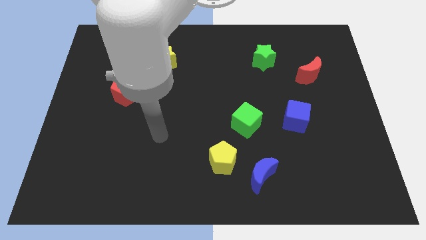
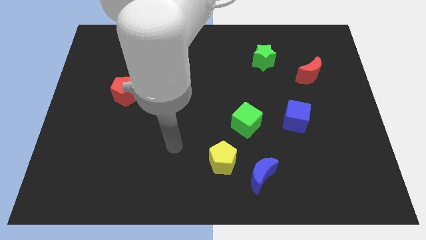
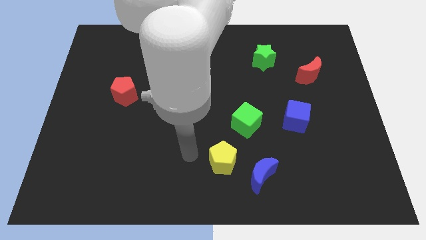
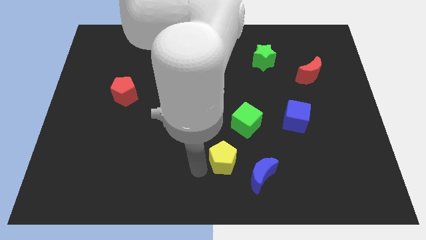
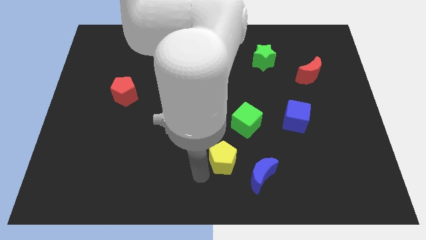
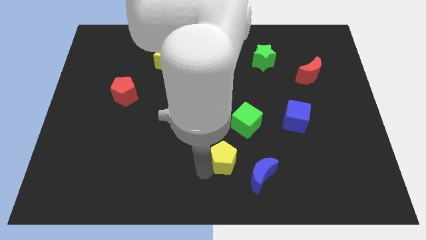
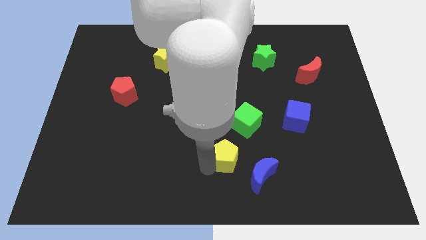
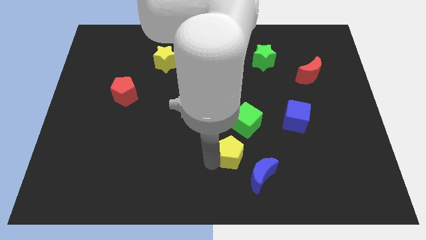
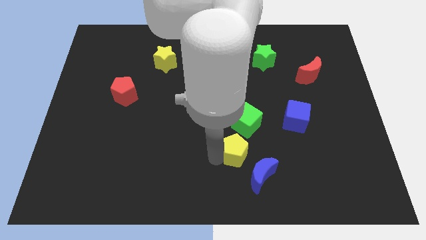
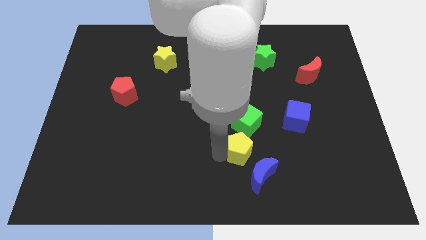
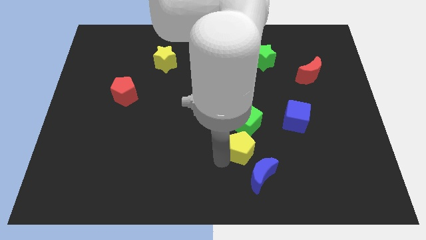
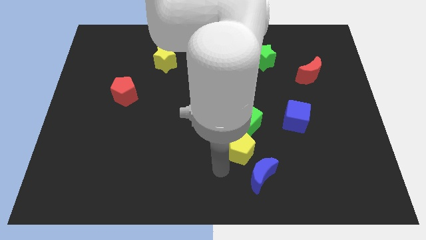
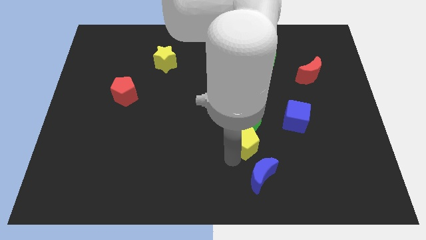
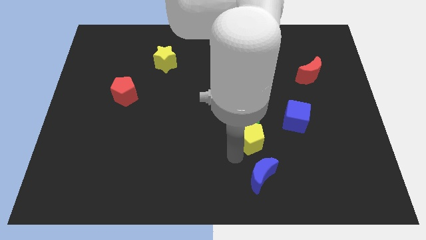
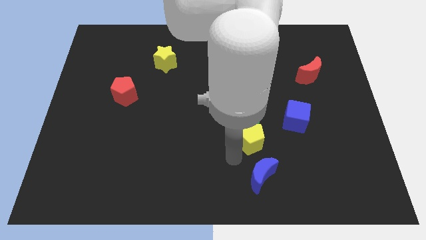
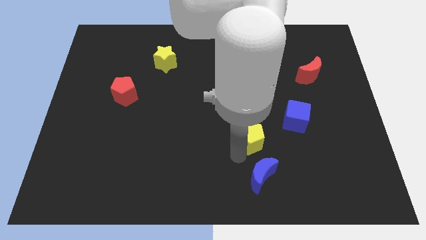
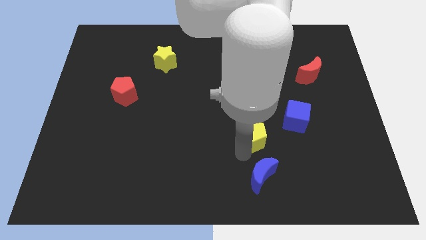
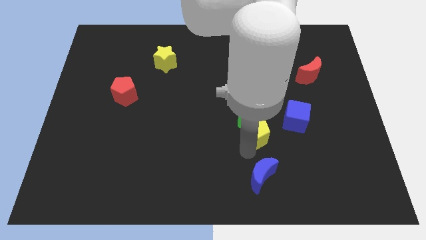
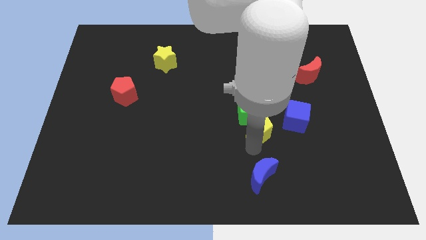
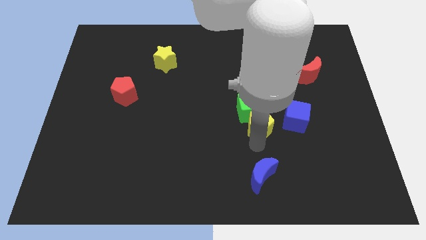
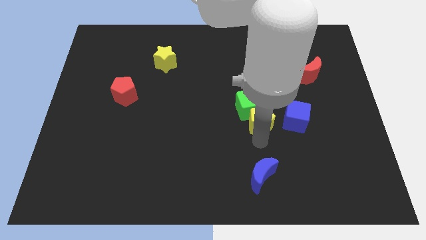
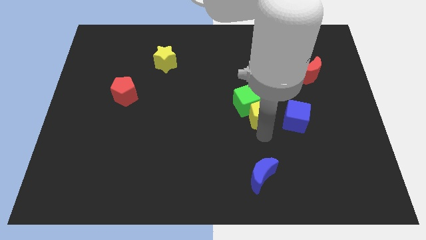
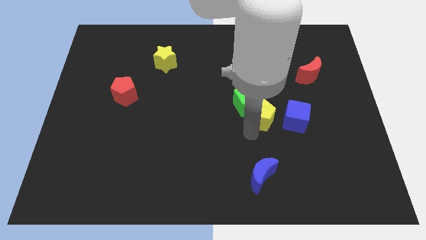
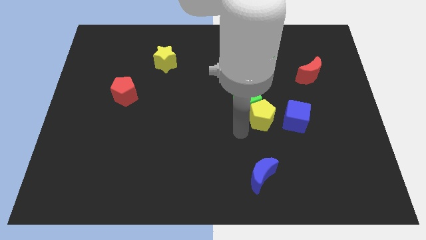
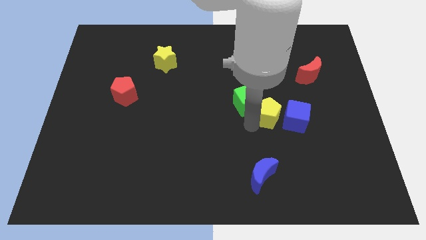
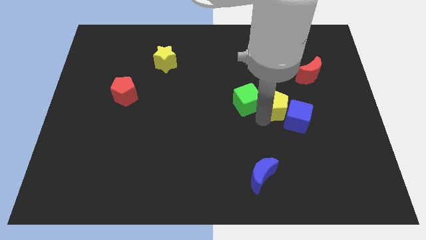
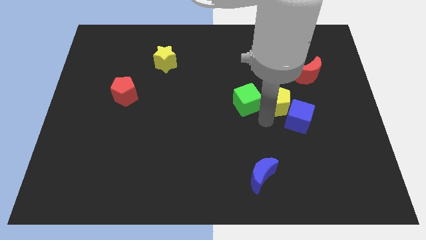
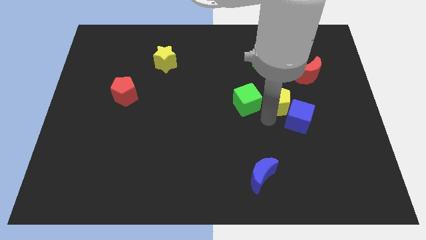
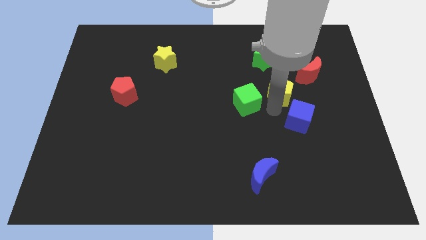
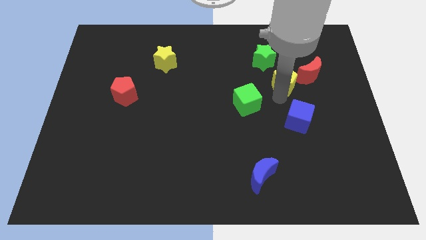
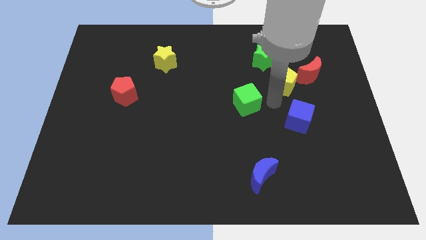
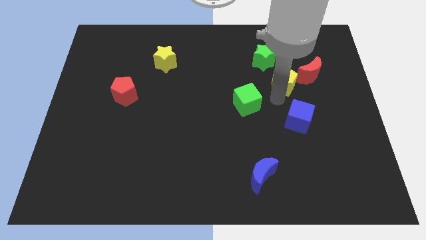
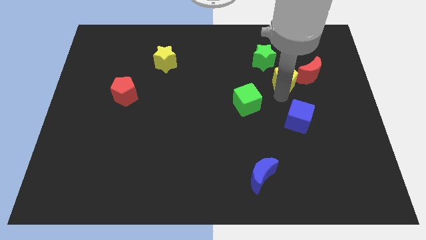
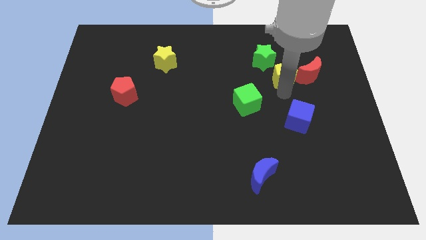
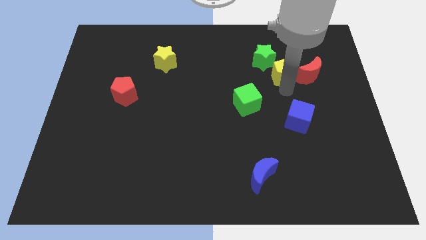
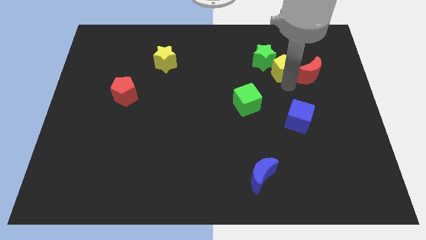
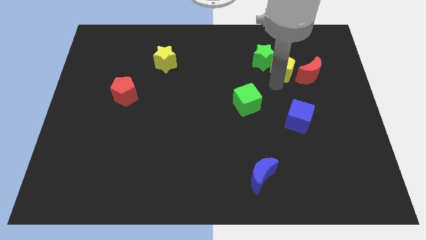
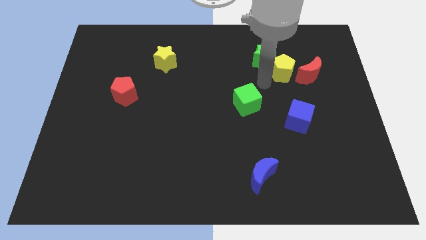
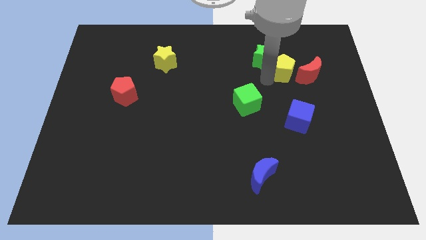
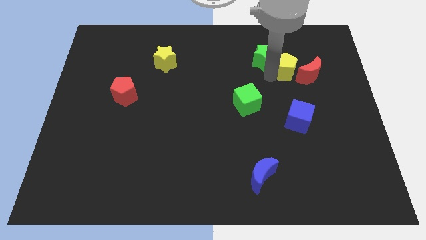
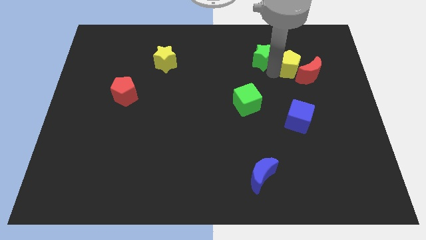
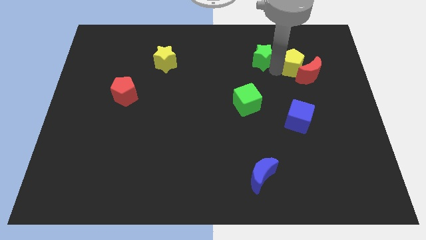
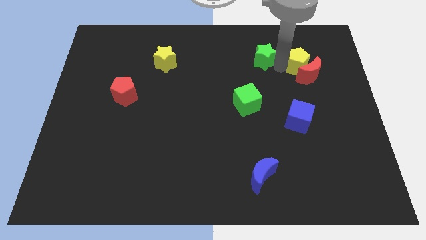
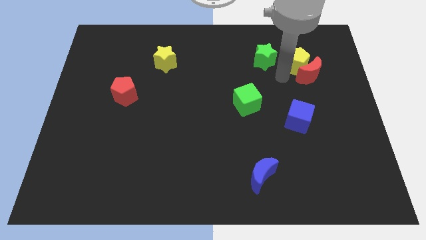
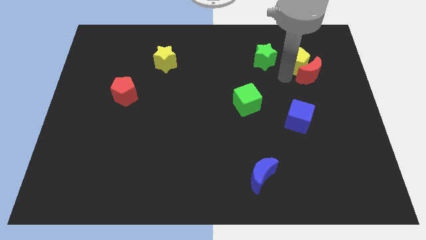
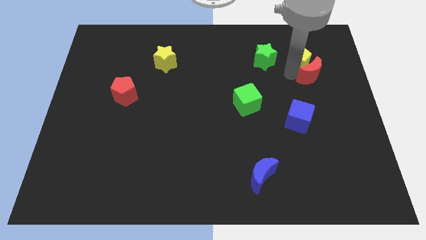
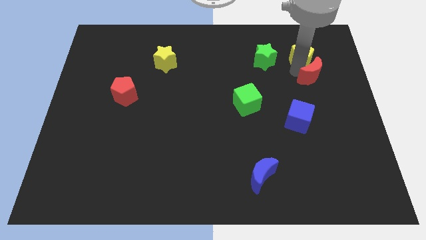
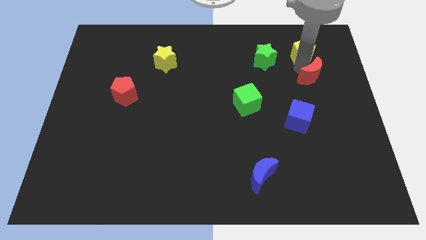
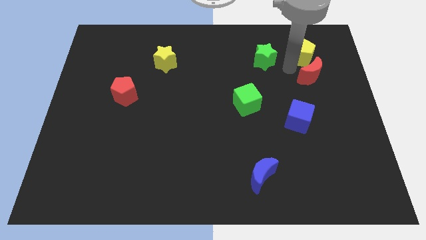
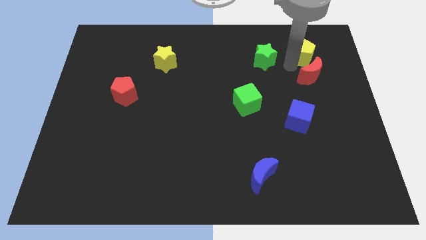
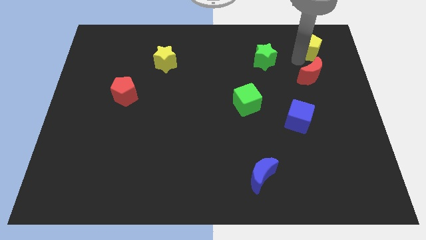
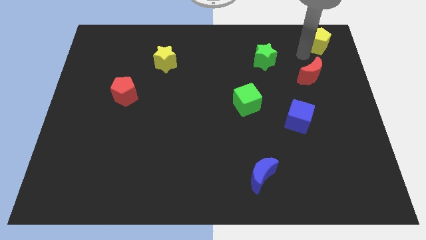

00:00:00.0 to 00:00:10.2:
move the yellow pentagon to the upper right corner

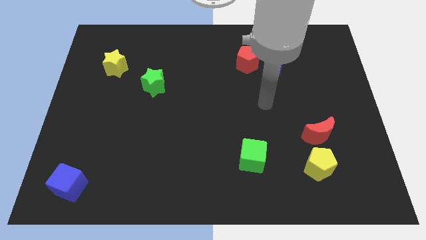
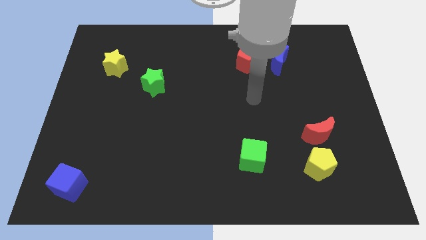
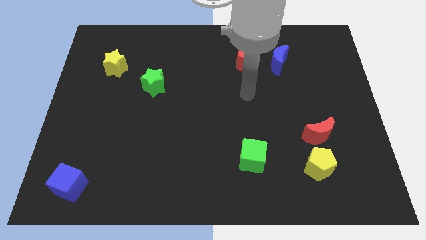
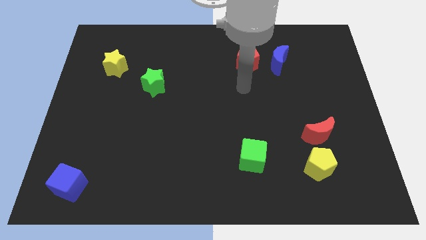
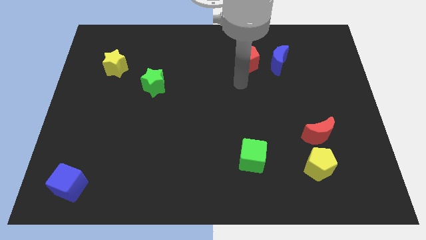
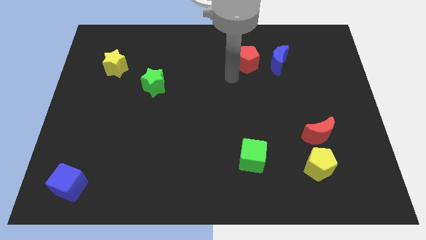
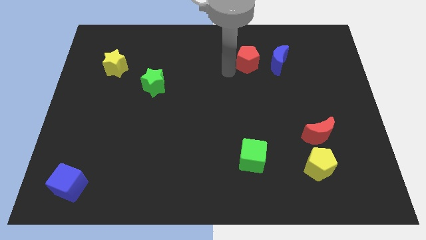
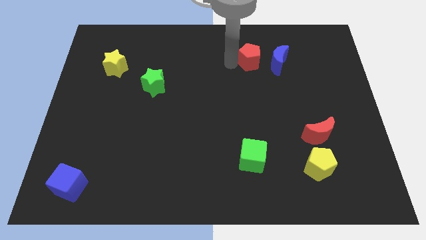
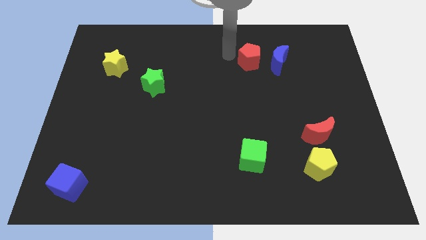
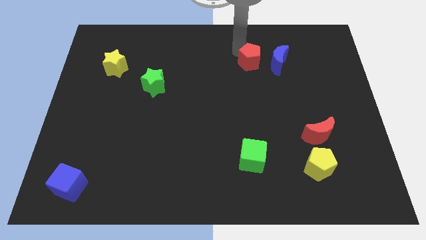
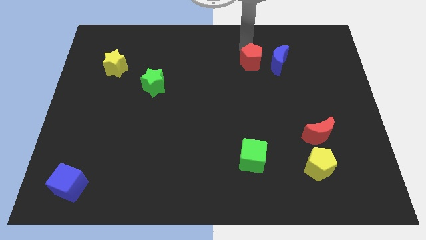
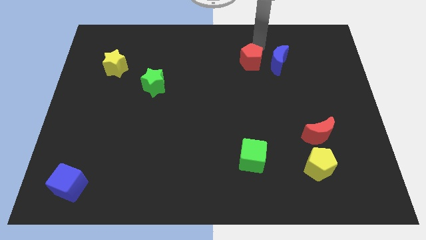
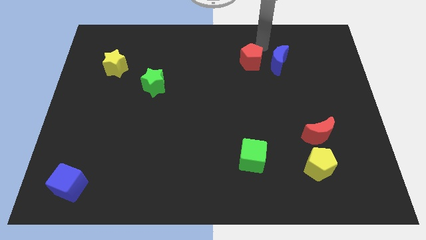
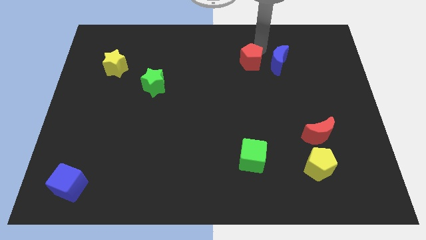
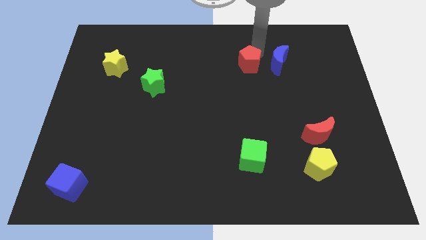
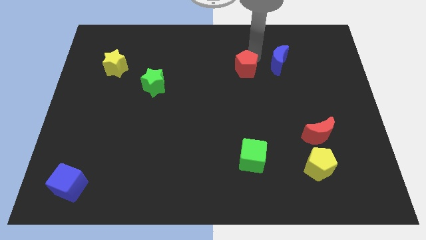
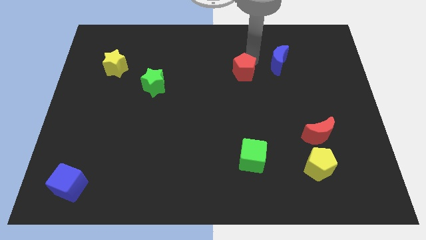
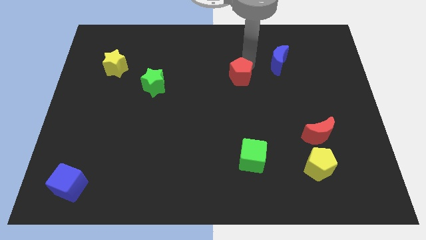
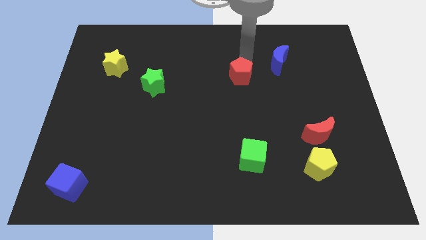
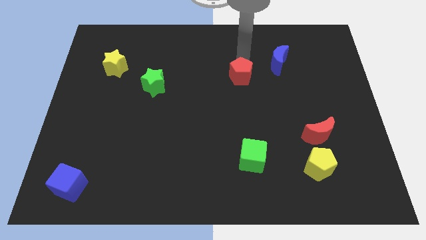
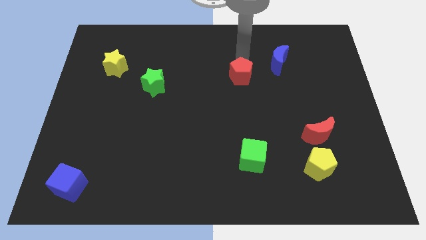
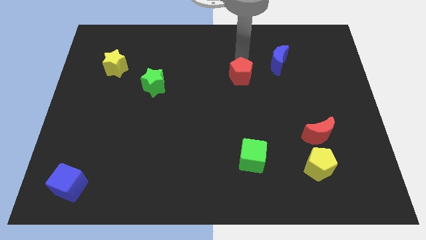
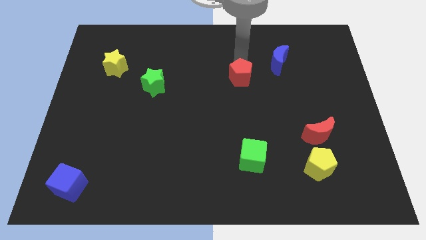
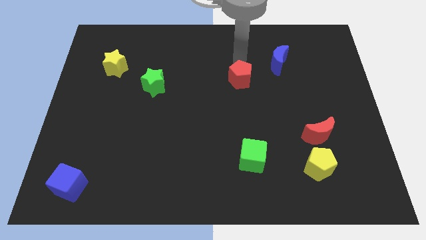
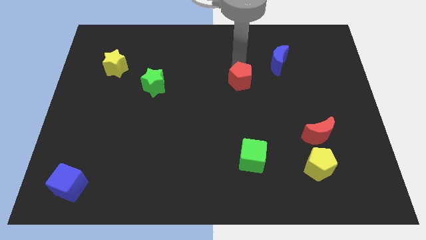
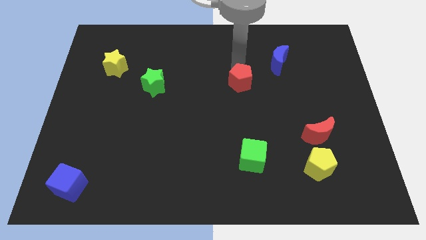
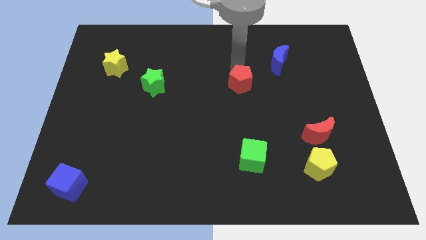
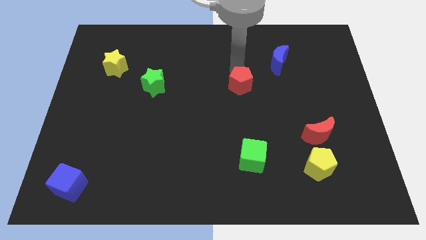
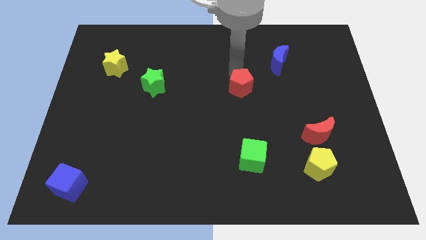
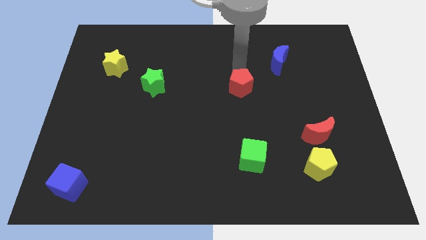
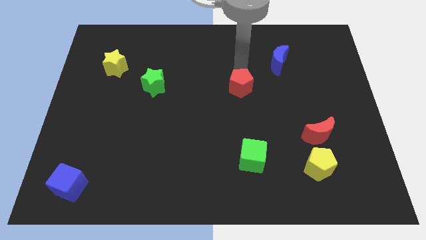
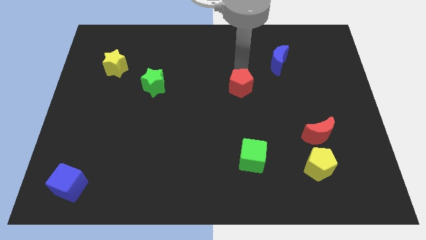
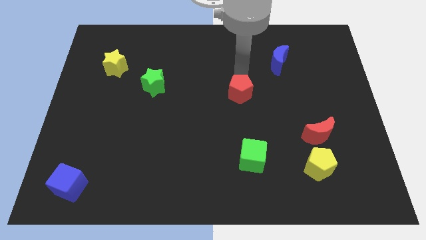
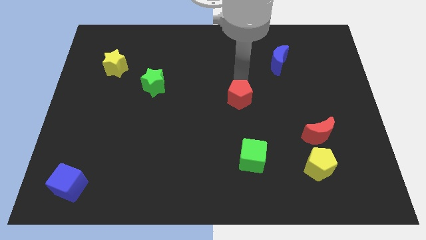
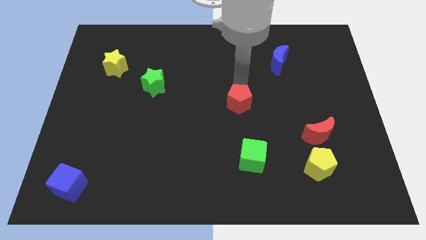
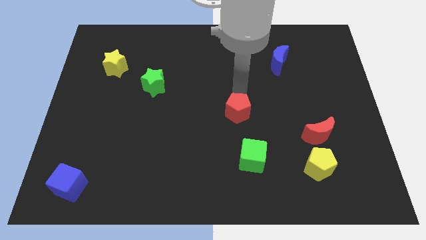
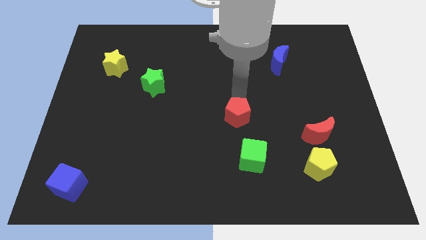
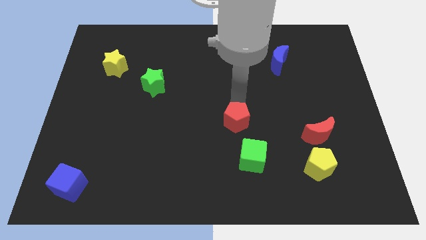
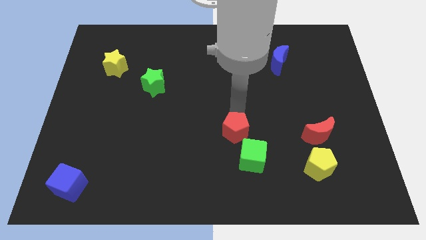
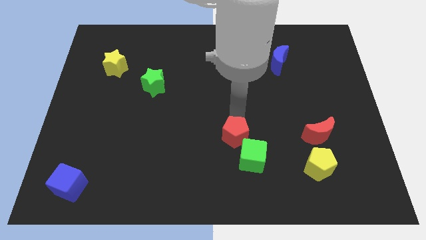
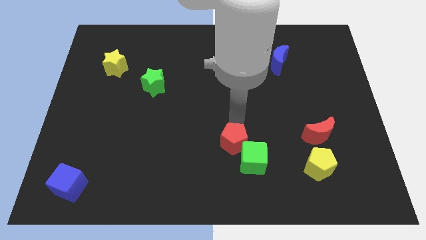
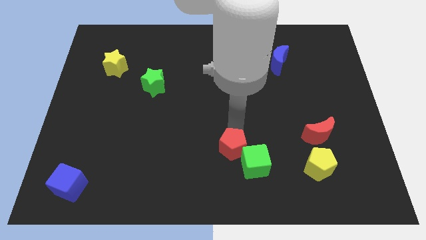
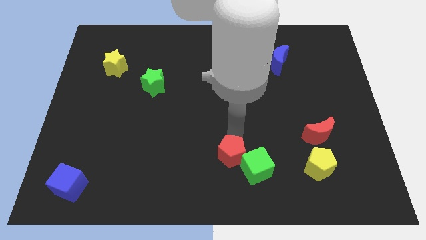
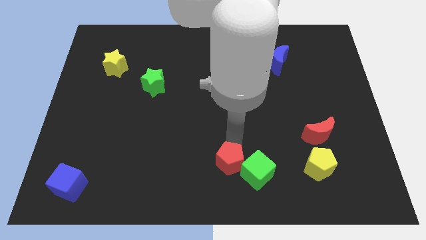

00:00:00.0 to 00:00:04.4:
put the red pentagon to the bottom
